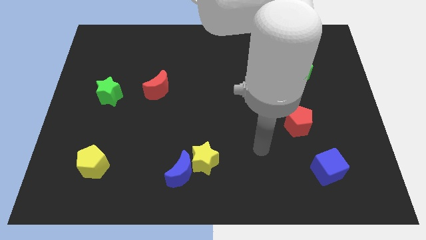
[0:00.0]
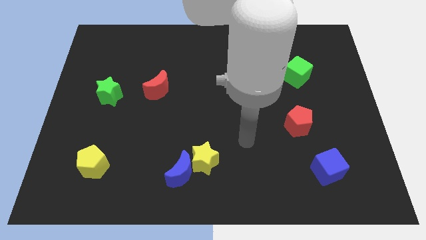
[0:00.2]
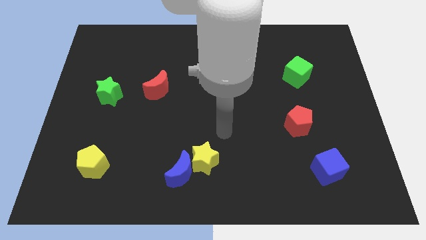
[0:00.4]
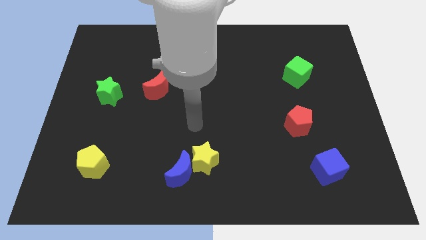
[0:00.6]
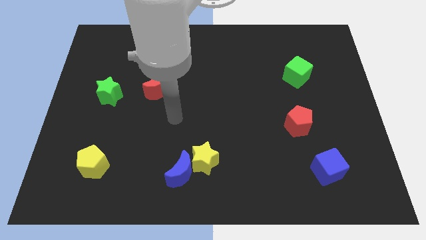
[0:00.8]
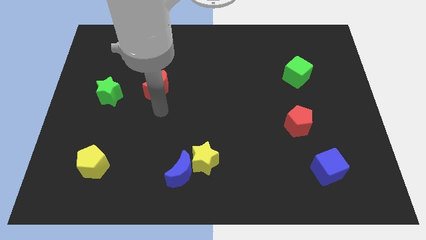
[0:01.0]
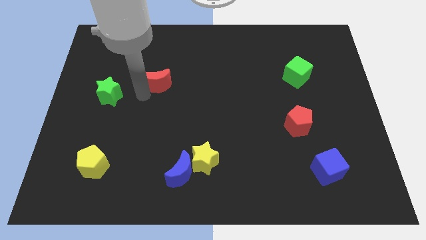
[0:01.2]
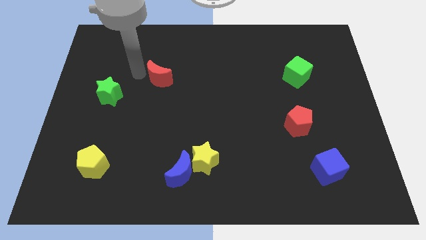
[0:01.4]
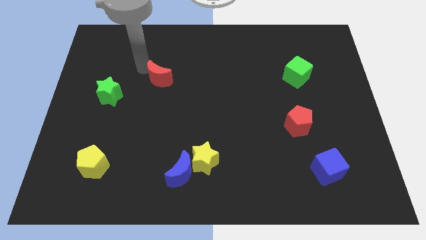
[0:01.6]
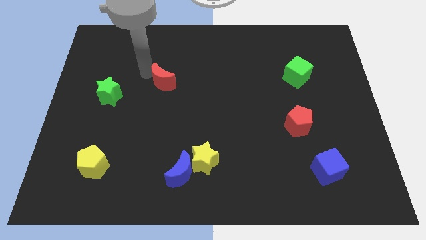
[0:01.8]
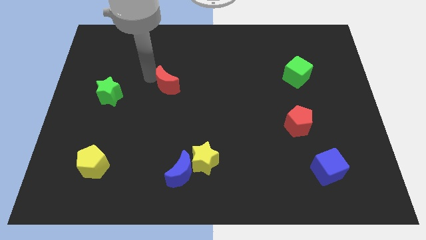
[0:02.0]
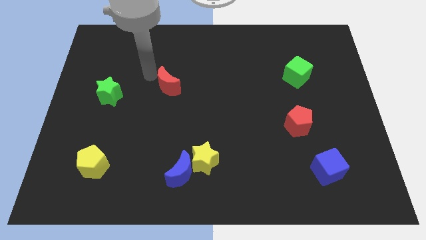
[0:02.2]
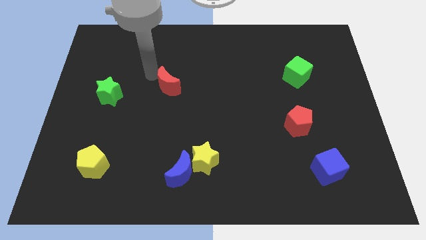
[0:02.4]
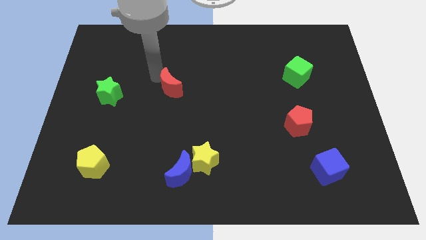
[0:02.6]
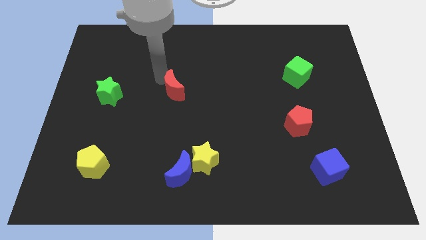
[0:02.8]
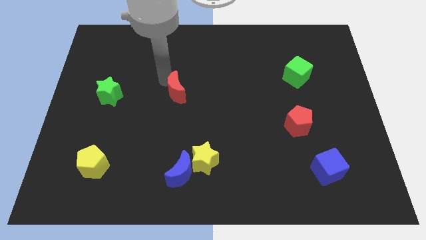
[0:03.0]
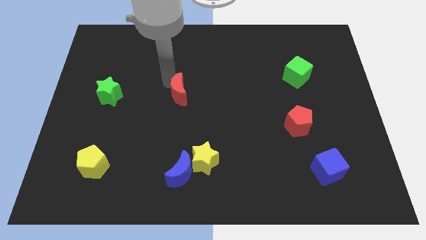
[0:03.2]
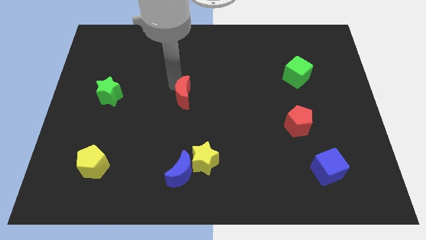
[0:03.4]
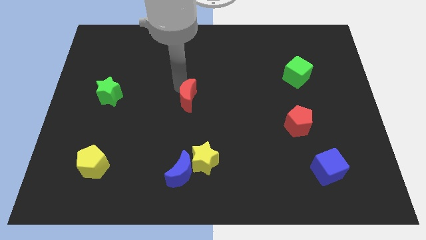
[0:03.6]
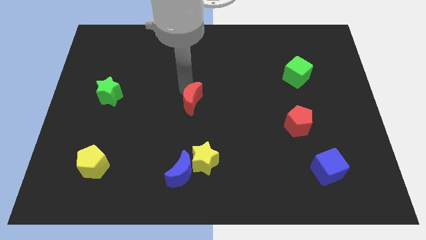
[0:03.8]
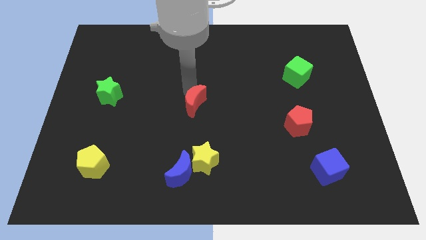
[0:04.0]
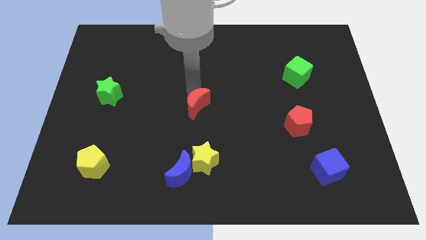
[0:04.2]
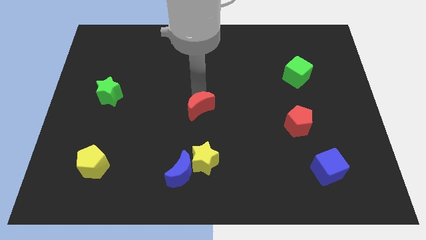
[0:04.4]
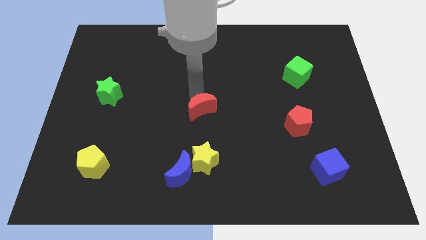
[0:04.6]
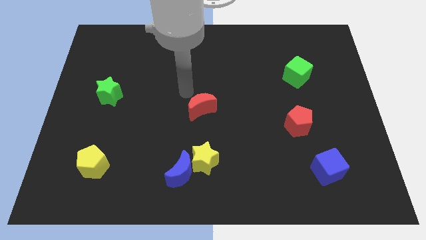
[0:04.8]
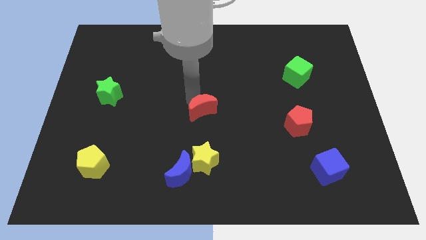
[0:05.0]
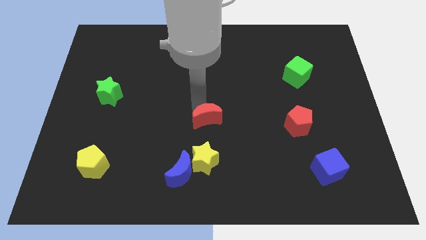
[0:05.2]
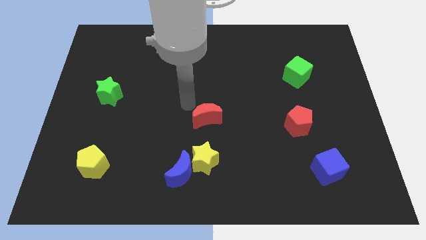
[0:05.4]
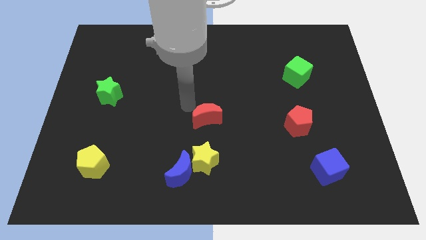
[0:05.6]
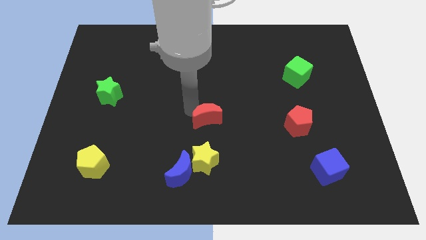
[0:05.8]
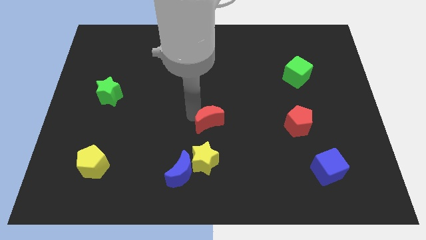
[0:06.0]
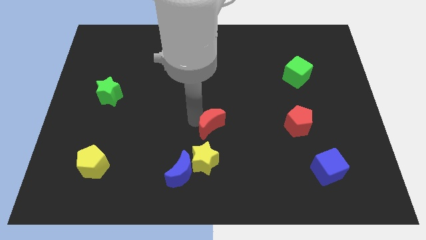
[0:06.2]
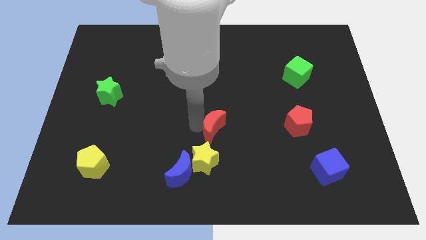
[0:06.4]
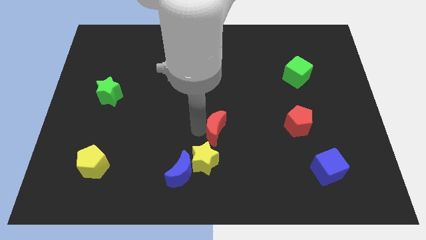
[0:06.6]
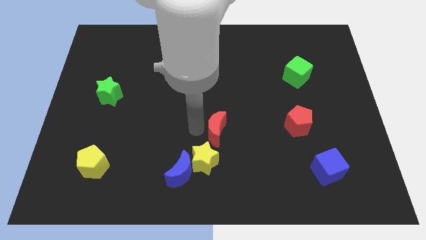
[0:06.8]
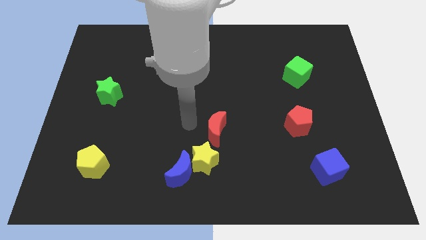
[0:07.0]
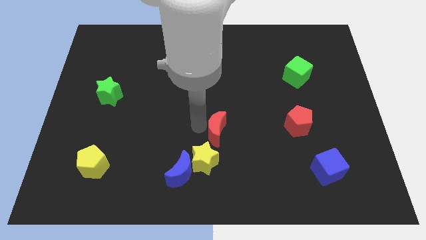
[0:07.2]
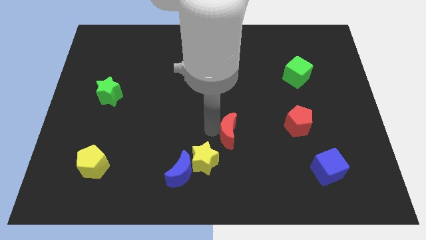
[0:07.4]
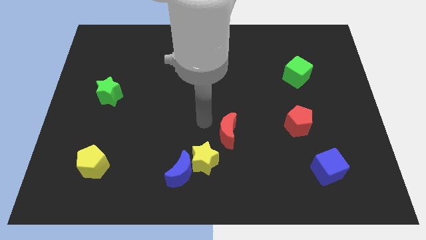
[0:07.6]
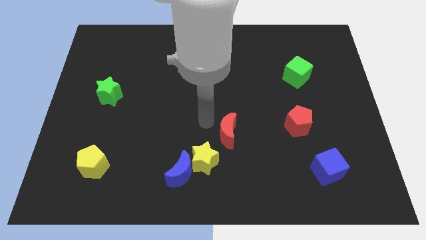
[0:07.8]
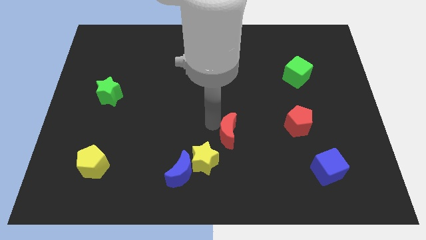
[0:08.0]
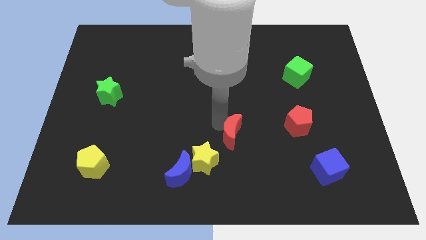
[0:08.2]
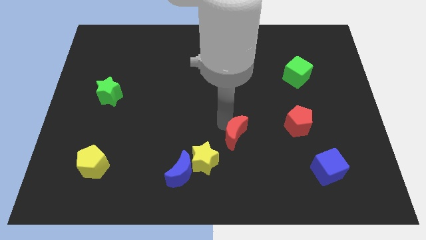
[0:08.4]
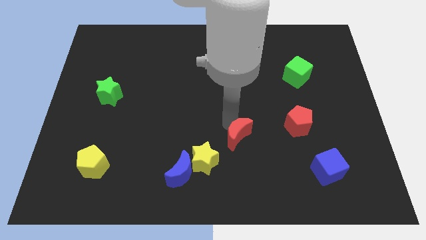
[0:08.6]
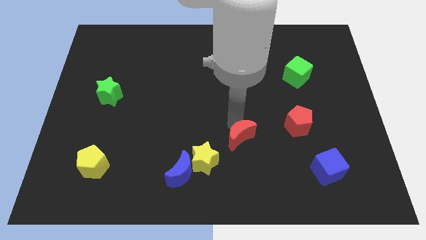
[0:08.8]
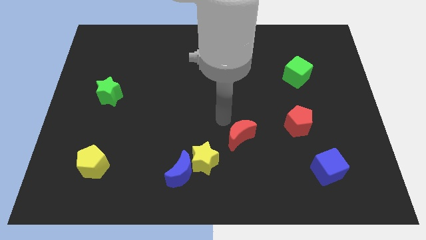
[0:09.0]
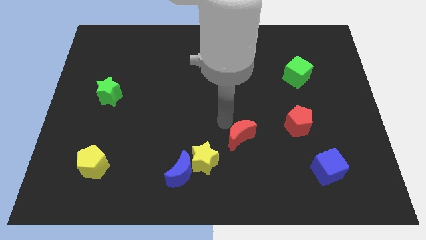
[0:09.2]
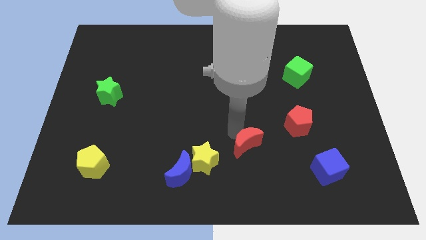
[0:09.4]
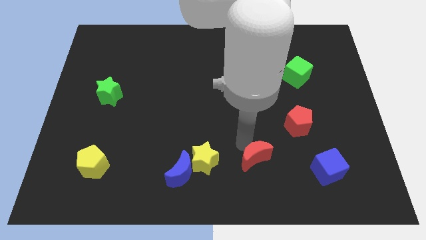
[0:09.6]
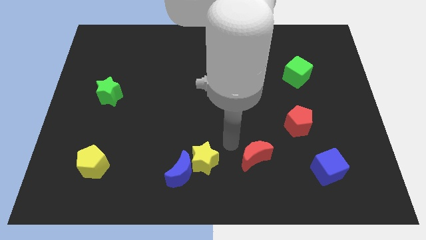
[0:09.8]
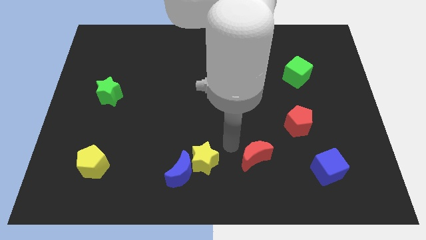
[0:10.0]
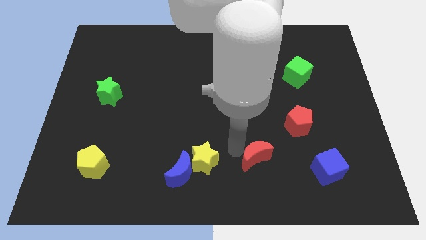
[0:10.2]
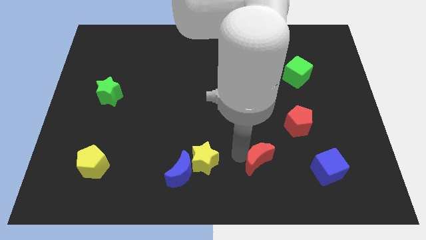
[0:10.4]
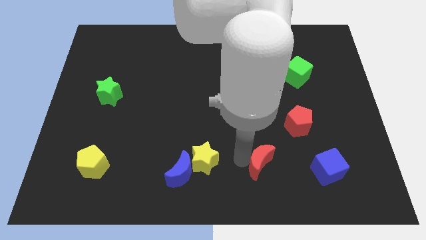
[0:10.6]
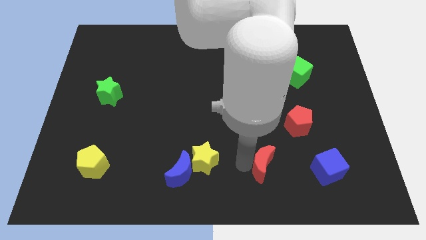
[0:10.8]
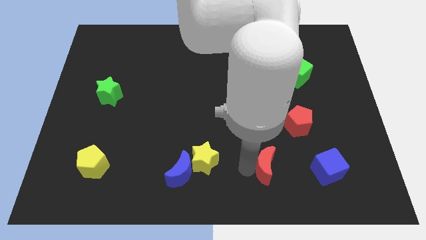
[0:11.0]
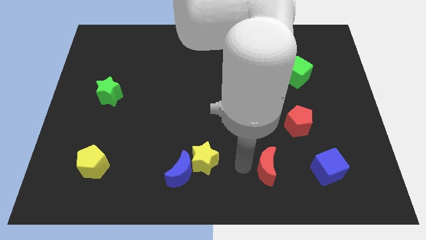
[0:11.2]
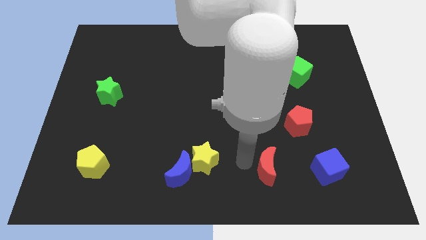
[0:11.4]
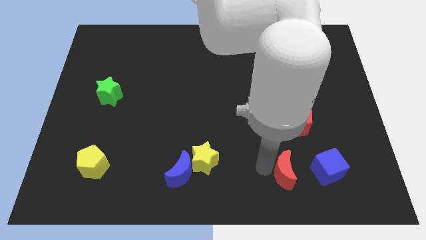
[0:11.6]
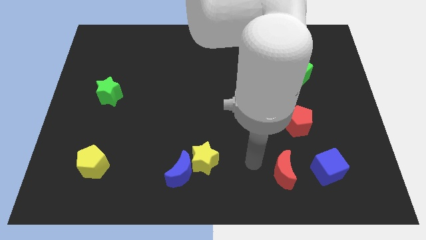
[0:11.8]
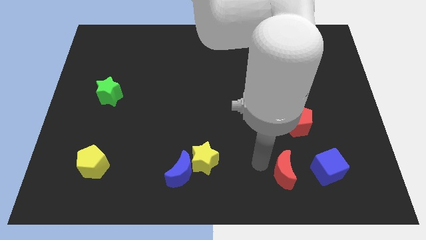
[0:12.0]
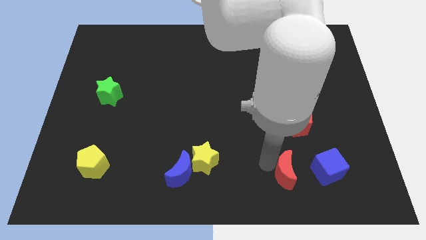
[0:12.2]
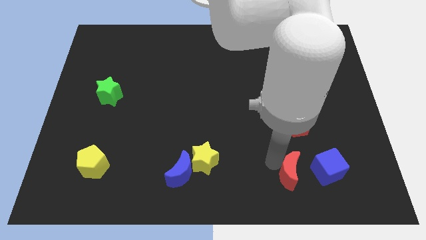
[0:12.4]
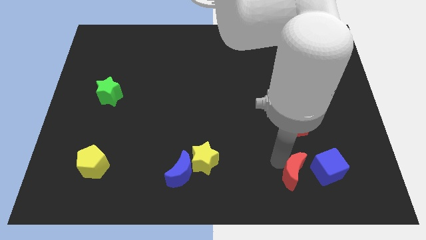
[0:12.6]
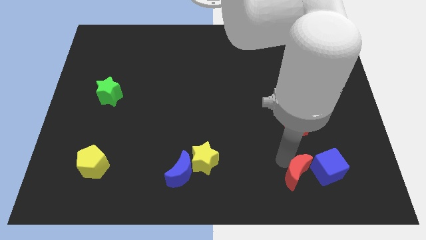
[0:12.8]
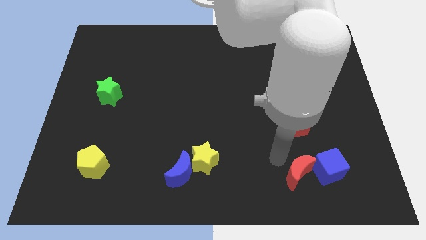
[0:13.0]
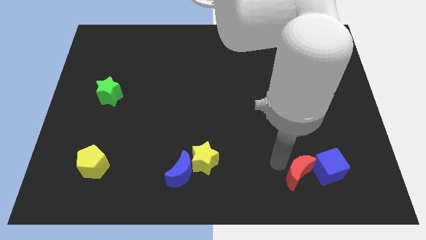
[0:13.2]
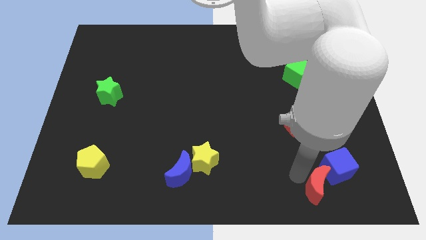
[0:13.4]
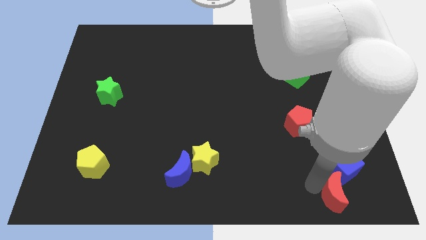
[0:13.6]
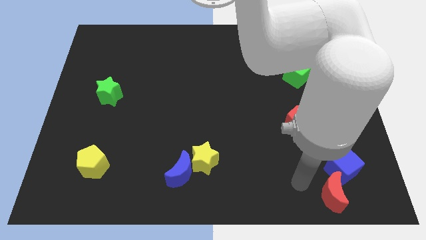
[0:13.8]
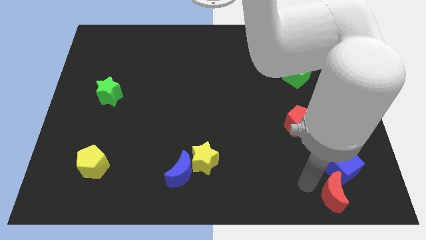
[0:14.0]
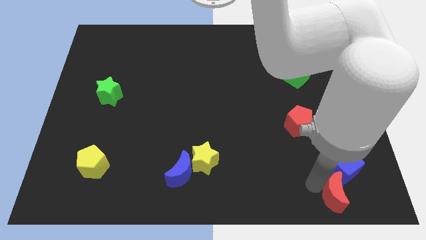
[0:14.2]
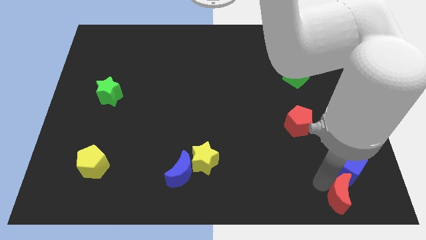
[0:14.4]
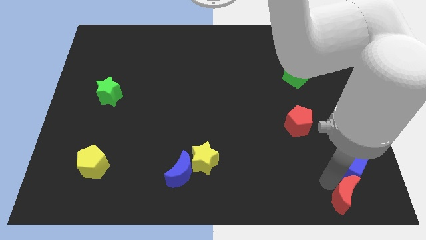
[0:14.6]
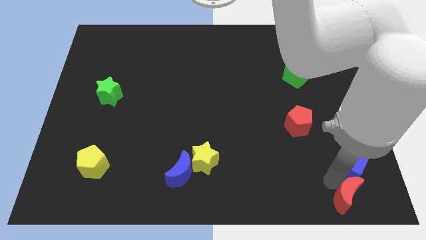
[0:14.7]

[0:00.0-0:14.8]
put the red moon to the bottom right corner
